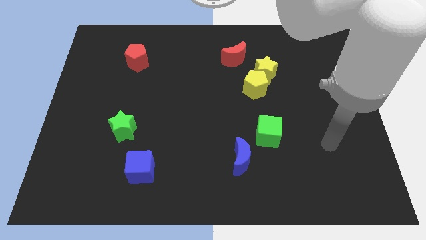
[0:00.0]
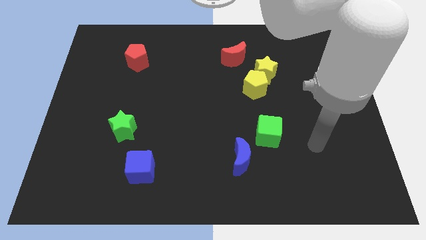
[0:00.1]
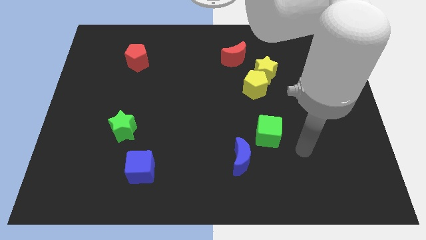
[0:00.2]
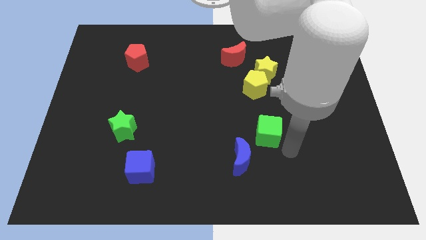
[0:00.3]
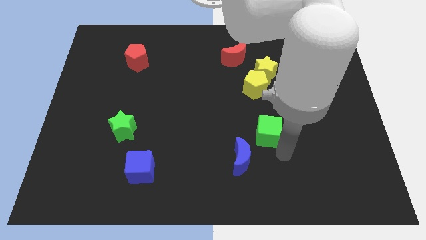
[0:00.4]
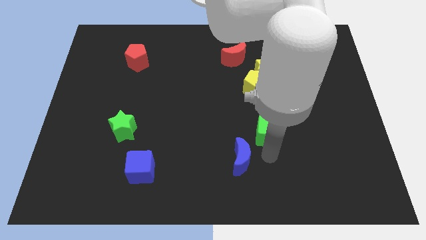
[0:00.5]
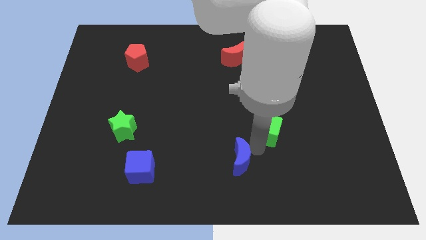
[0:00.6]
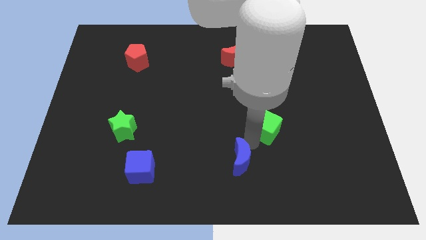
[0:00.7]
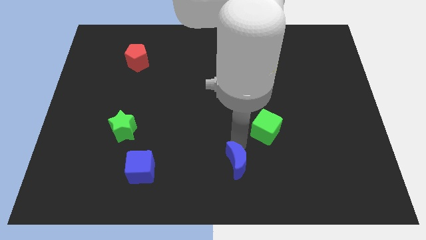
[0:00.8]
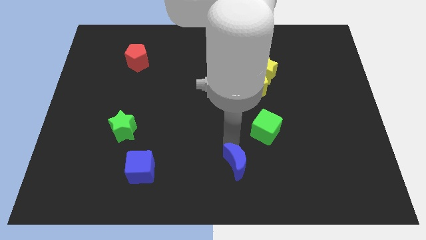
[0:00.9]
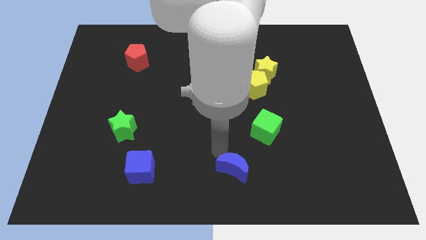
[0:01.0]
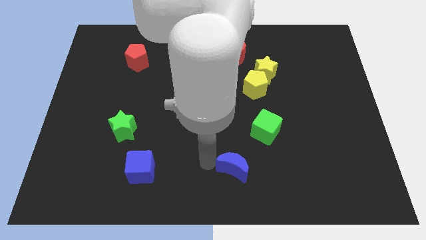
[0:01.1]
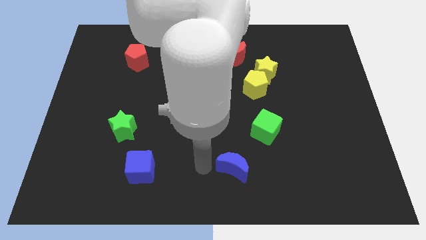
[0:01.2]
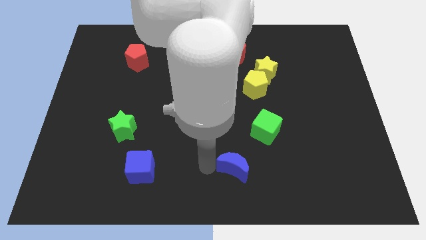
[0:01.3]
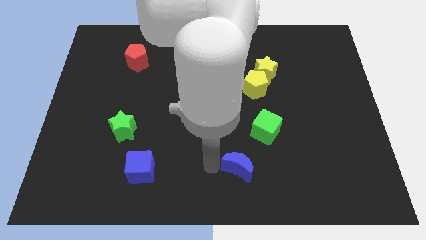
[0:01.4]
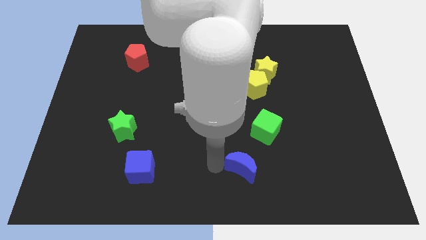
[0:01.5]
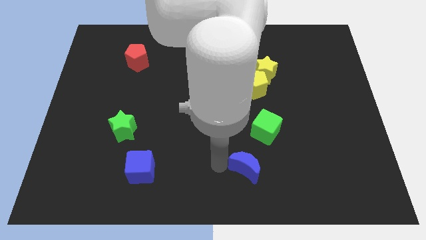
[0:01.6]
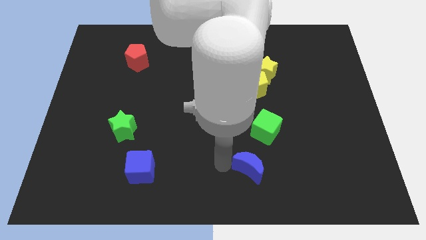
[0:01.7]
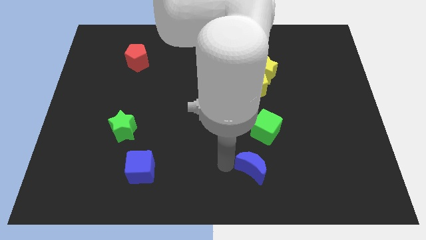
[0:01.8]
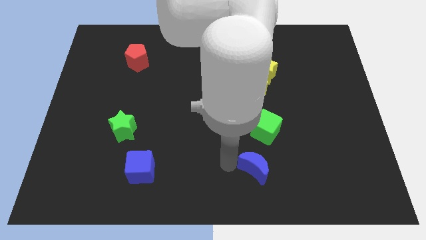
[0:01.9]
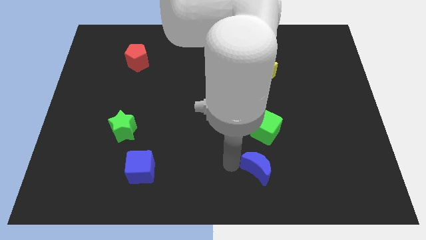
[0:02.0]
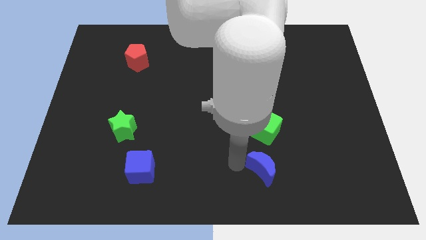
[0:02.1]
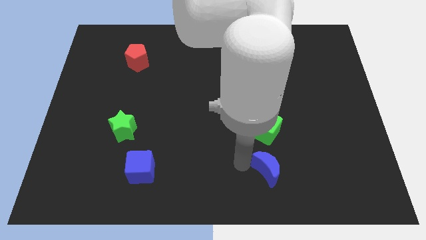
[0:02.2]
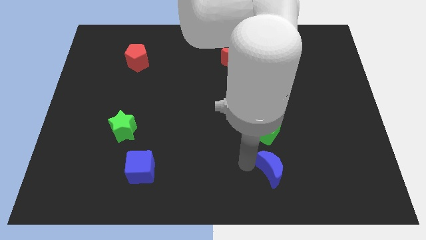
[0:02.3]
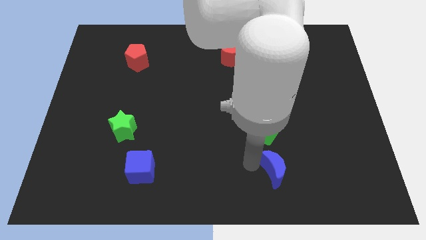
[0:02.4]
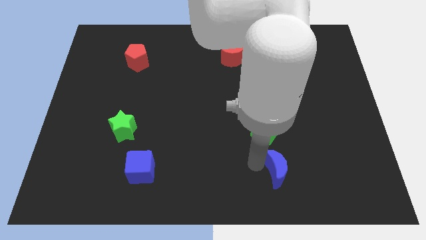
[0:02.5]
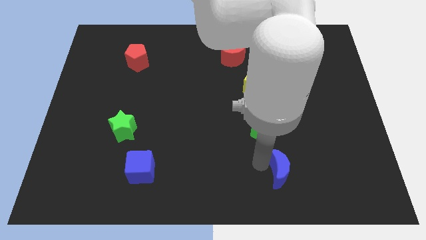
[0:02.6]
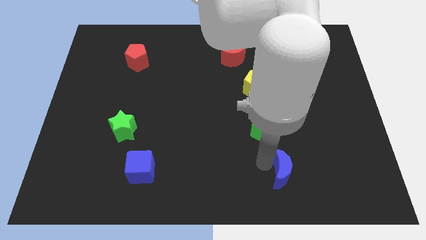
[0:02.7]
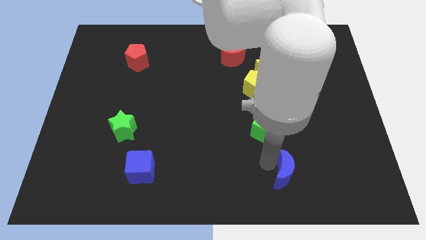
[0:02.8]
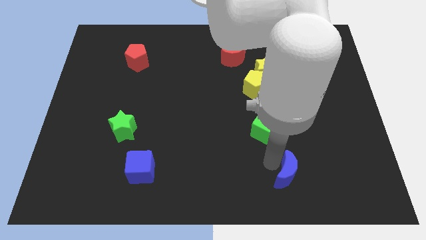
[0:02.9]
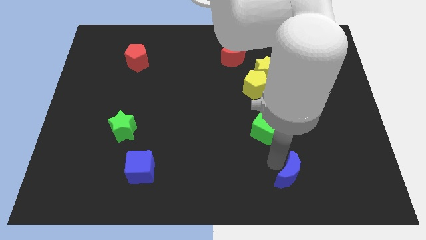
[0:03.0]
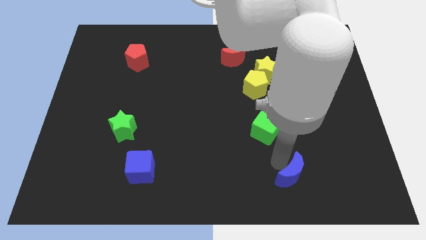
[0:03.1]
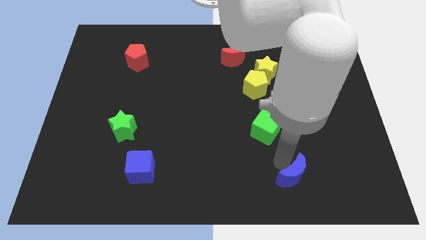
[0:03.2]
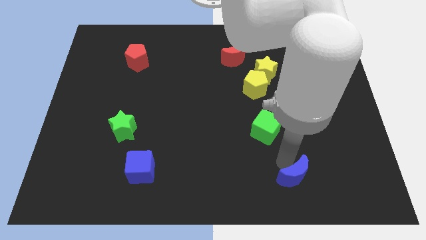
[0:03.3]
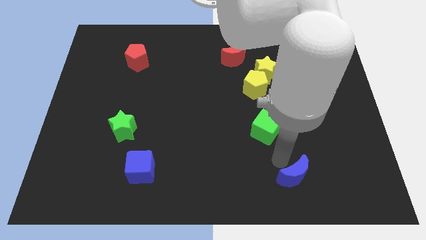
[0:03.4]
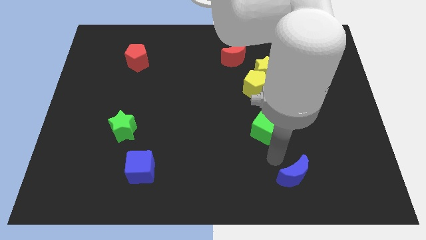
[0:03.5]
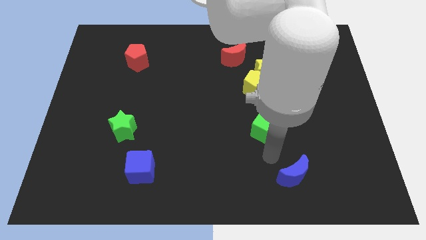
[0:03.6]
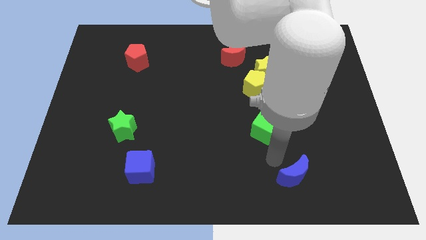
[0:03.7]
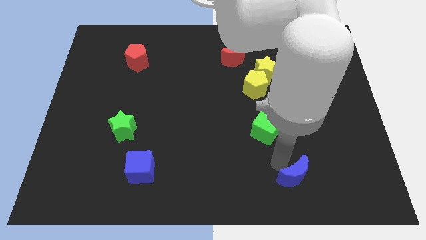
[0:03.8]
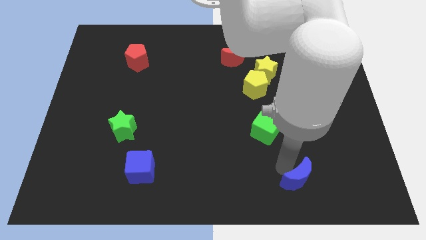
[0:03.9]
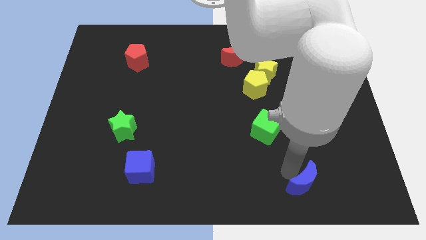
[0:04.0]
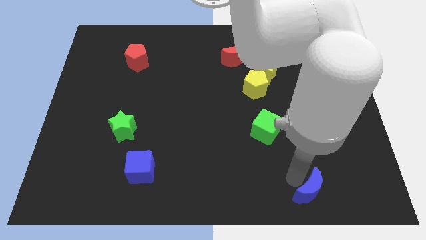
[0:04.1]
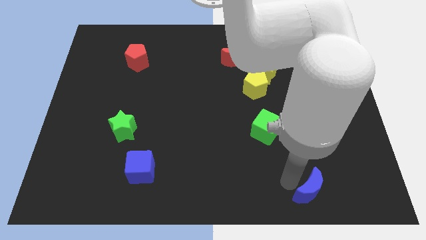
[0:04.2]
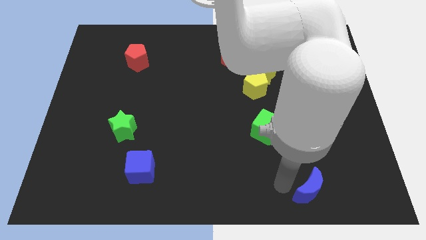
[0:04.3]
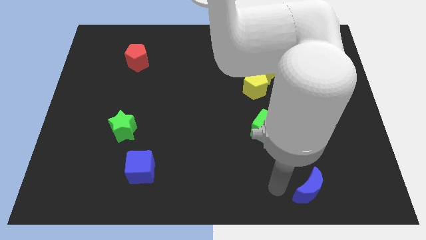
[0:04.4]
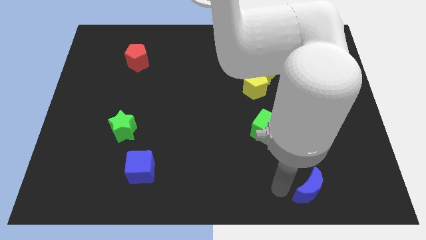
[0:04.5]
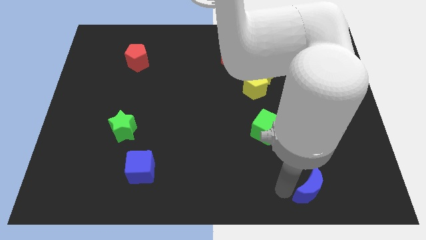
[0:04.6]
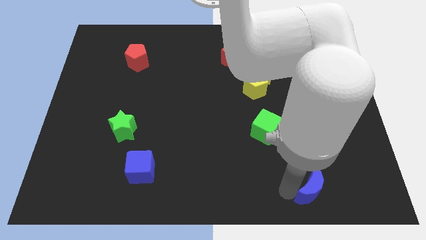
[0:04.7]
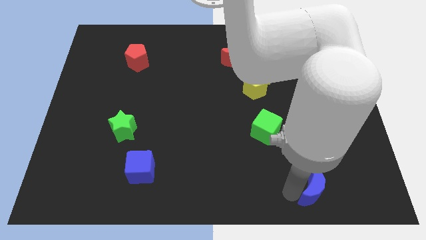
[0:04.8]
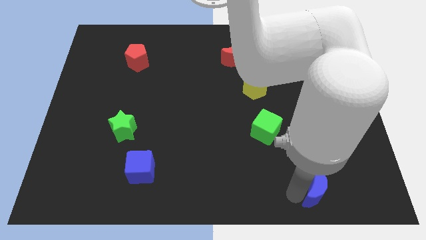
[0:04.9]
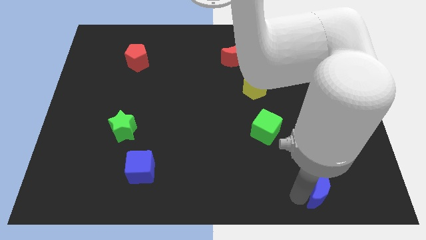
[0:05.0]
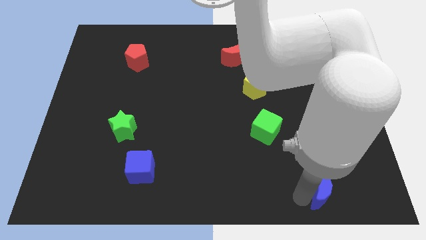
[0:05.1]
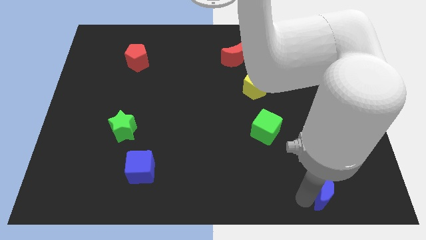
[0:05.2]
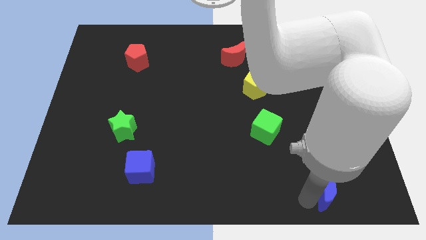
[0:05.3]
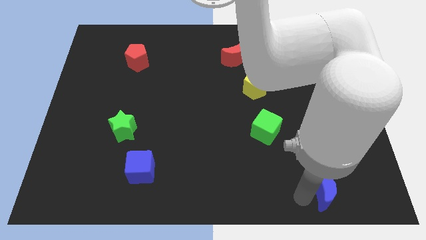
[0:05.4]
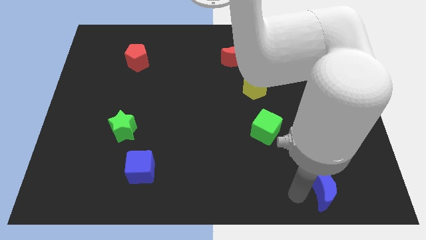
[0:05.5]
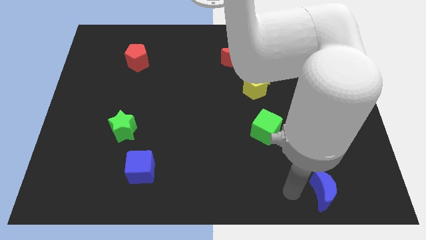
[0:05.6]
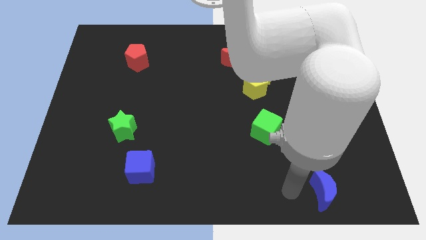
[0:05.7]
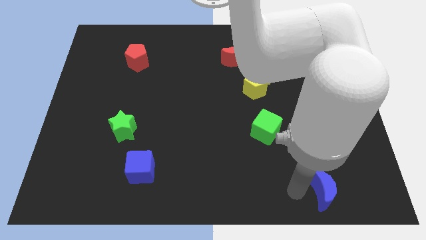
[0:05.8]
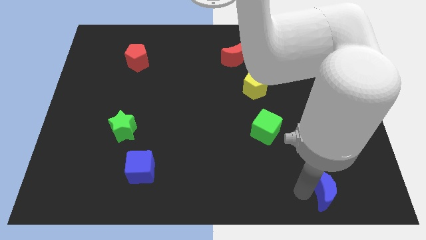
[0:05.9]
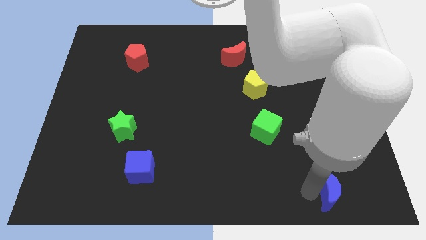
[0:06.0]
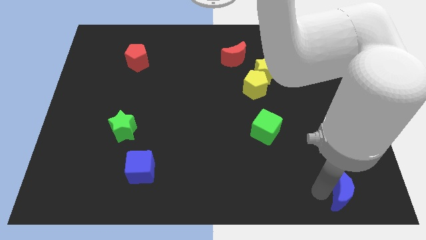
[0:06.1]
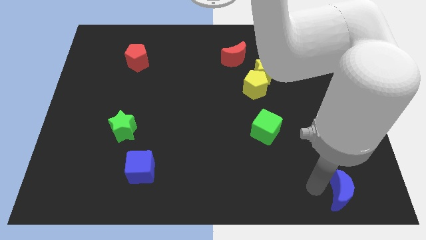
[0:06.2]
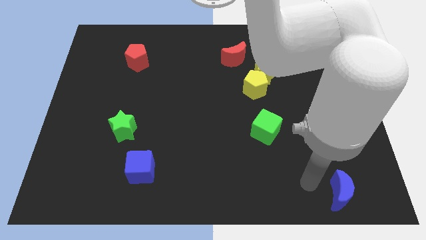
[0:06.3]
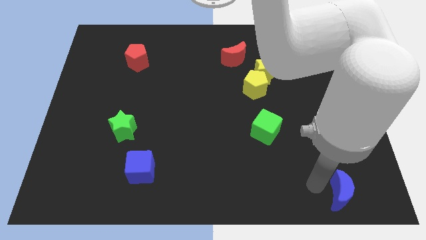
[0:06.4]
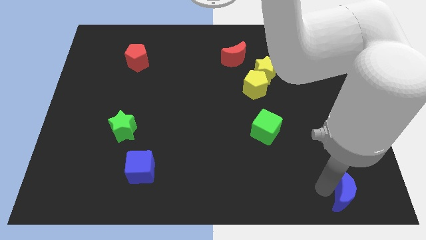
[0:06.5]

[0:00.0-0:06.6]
slide the blue moon to the bottom right
